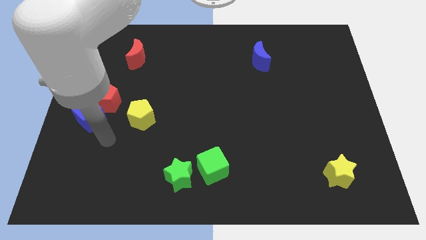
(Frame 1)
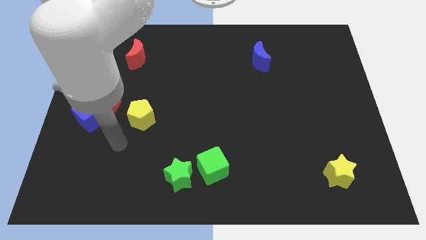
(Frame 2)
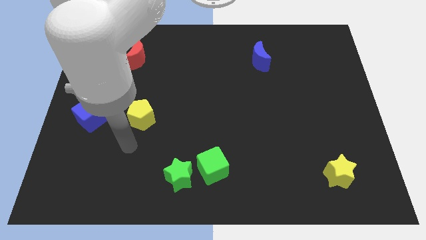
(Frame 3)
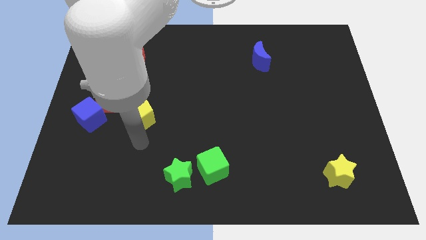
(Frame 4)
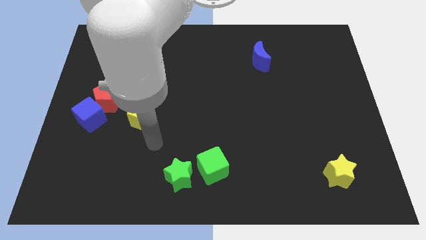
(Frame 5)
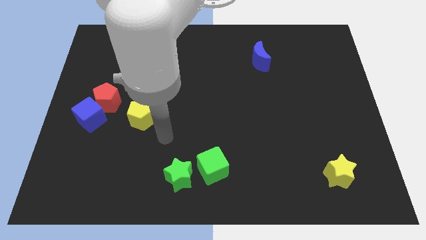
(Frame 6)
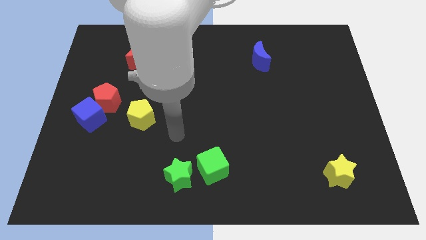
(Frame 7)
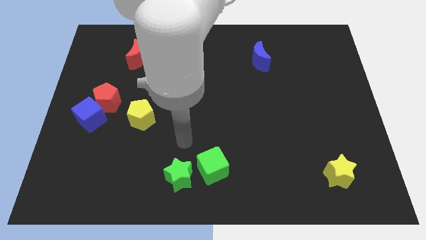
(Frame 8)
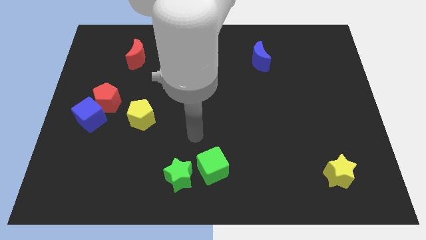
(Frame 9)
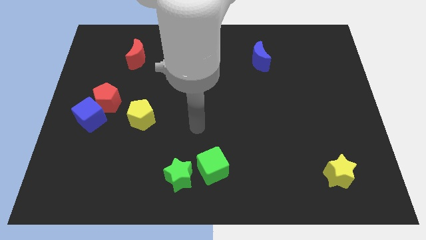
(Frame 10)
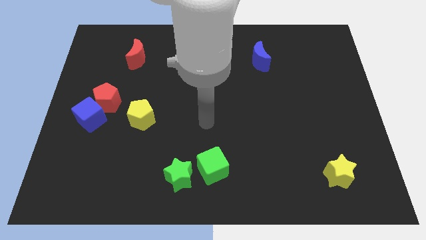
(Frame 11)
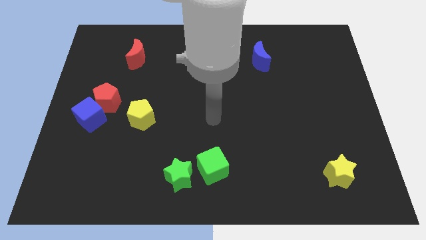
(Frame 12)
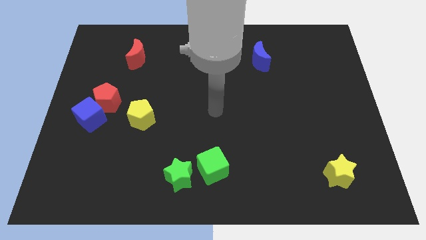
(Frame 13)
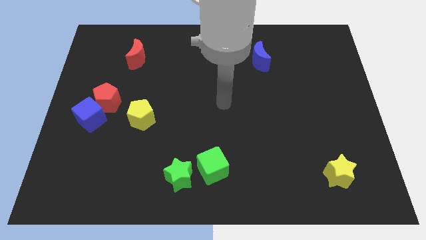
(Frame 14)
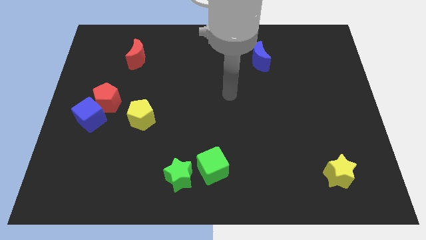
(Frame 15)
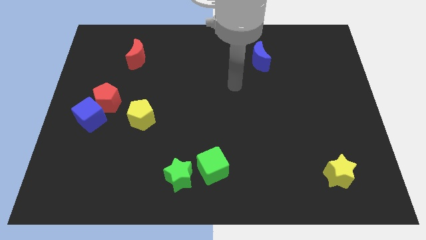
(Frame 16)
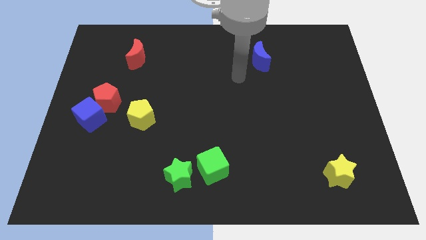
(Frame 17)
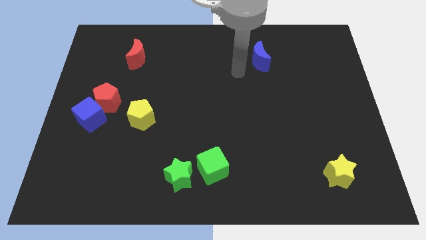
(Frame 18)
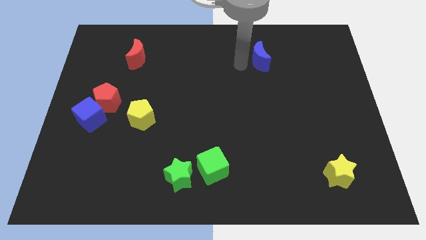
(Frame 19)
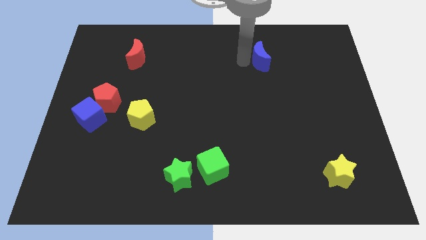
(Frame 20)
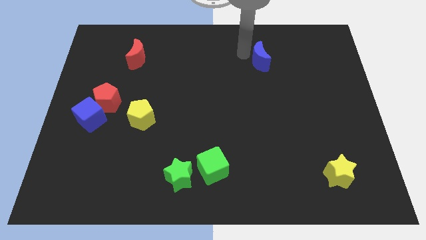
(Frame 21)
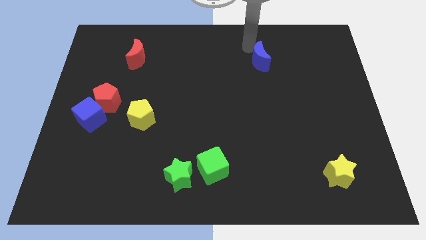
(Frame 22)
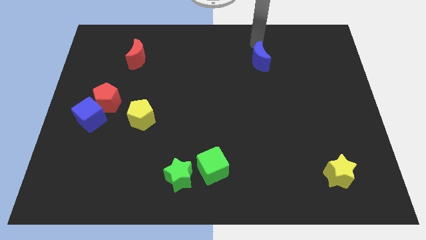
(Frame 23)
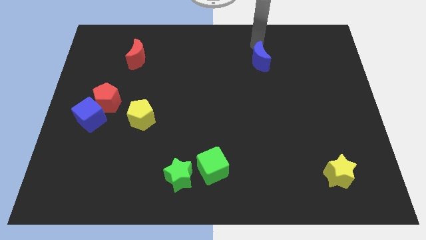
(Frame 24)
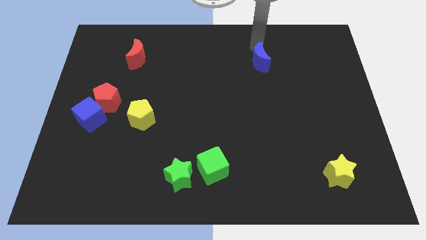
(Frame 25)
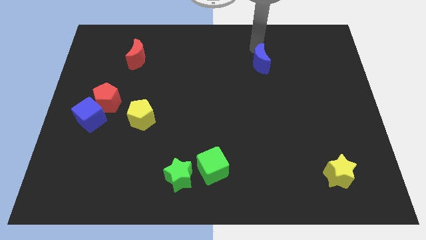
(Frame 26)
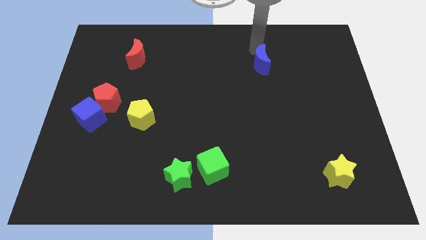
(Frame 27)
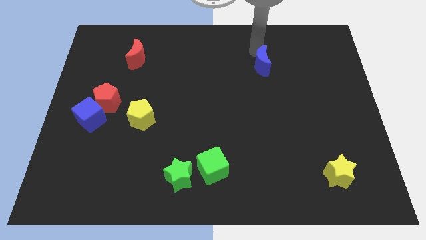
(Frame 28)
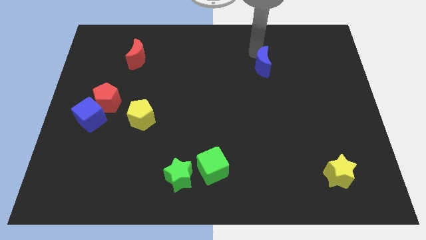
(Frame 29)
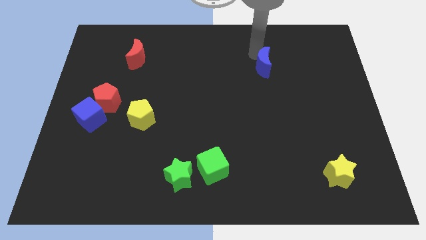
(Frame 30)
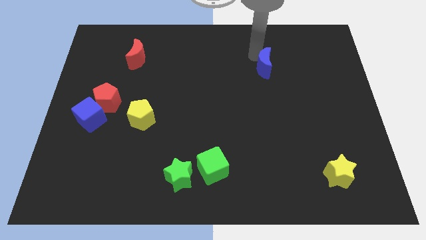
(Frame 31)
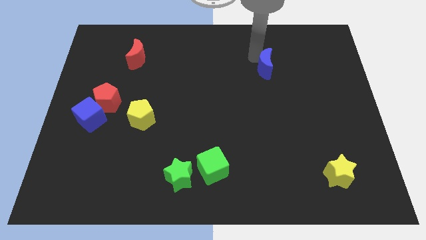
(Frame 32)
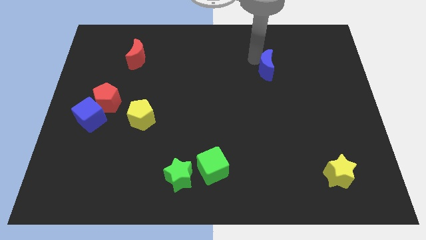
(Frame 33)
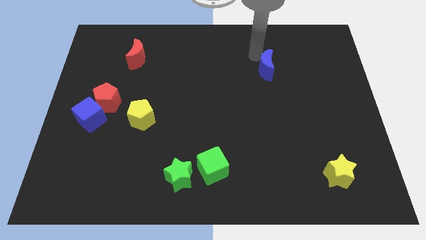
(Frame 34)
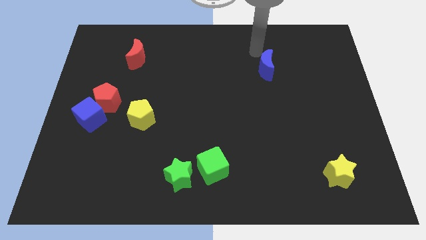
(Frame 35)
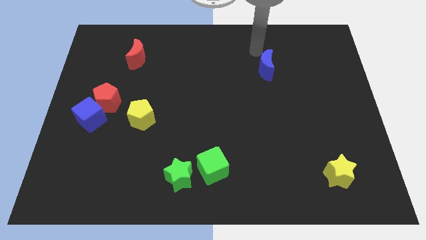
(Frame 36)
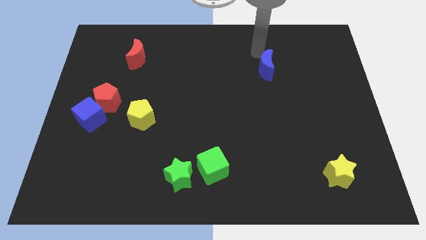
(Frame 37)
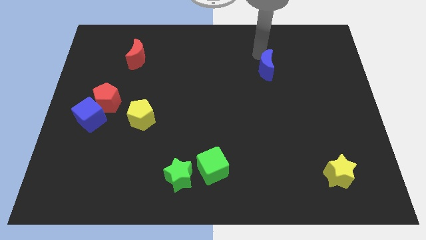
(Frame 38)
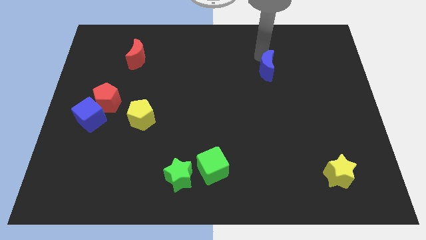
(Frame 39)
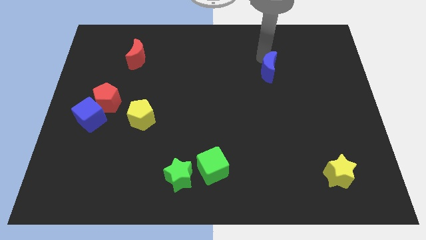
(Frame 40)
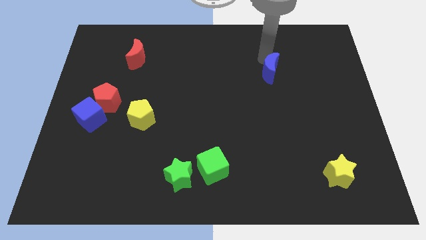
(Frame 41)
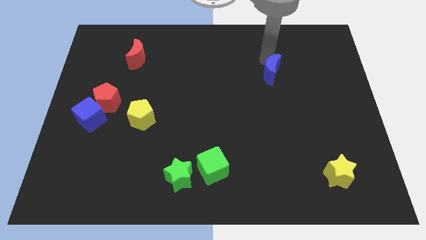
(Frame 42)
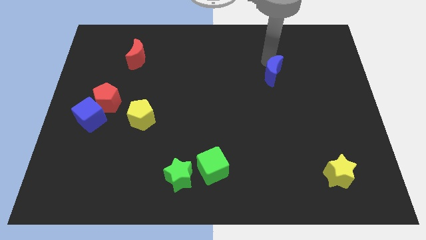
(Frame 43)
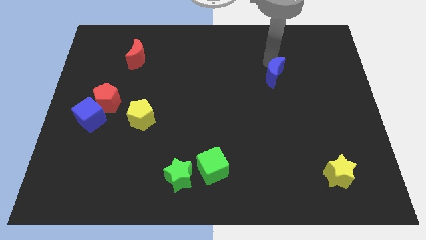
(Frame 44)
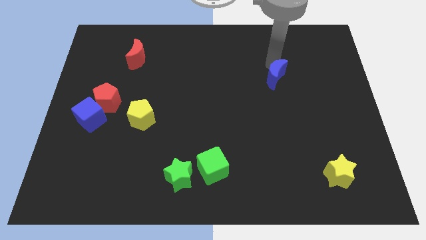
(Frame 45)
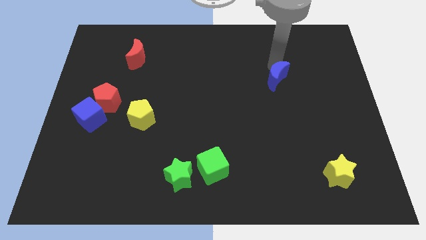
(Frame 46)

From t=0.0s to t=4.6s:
slide the blue moon somewhat down and to the right

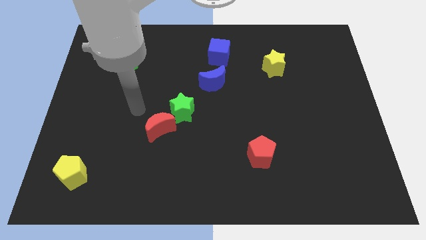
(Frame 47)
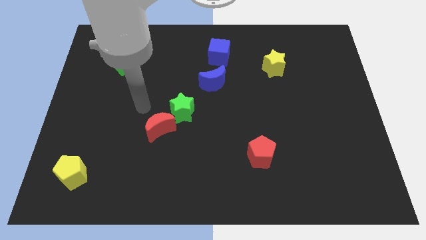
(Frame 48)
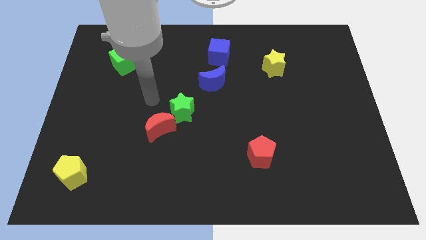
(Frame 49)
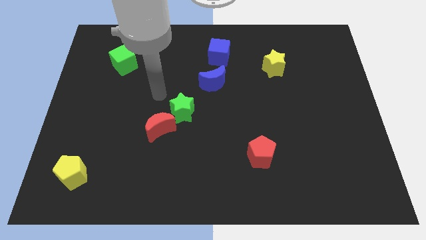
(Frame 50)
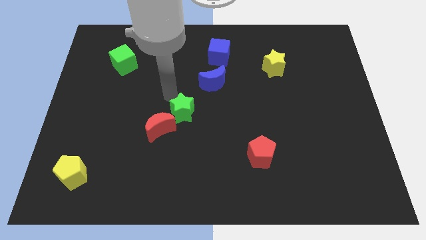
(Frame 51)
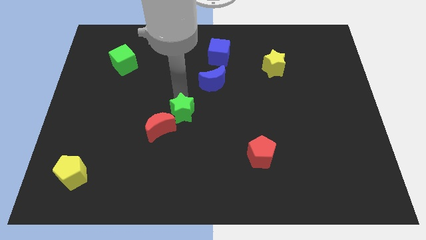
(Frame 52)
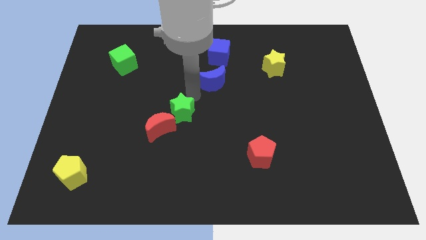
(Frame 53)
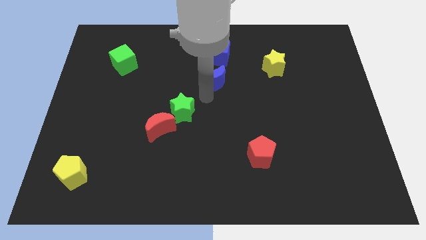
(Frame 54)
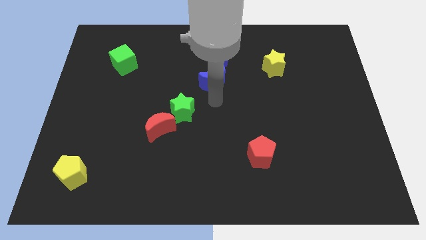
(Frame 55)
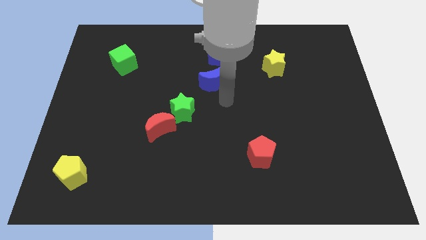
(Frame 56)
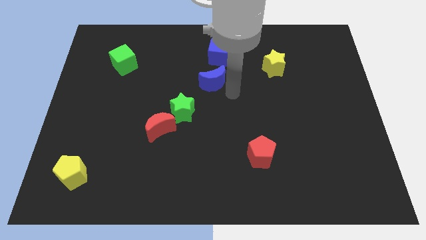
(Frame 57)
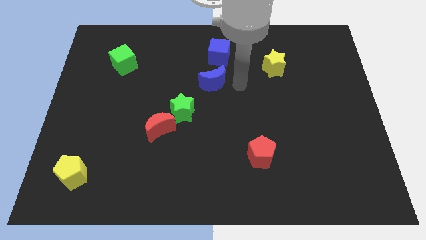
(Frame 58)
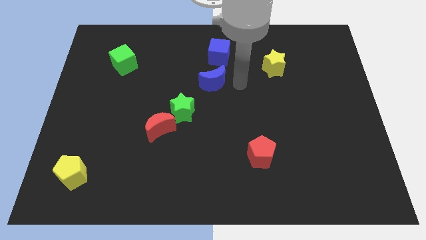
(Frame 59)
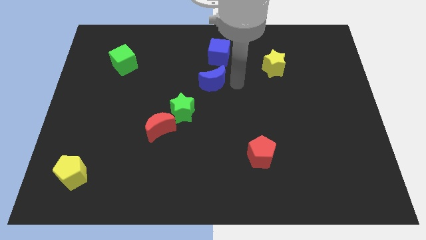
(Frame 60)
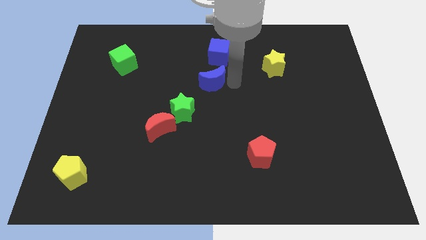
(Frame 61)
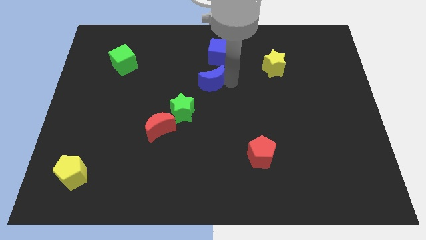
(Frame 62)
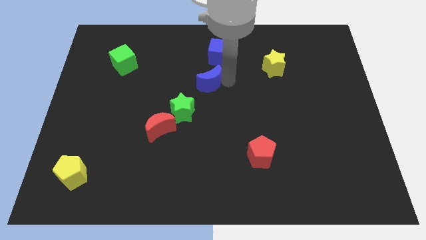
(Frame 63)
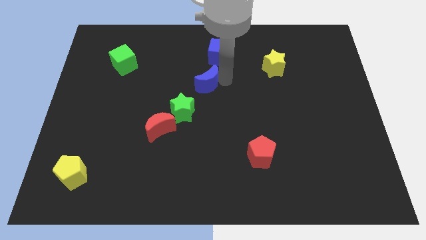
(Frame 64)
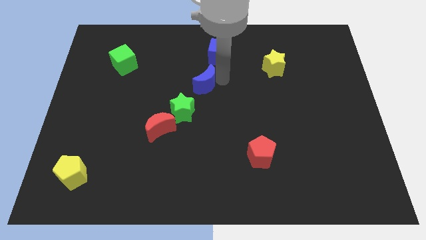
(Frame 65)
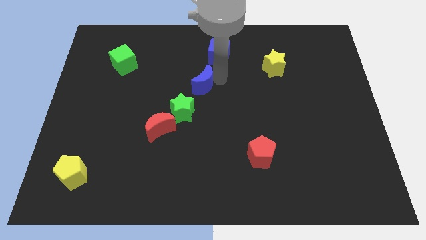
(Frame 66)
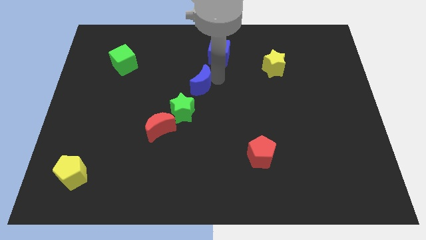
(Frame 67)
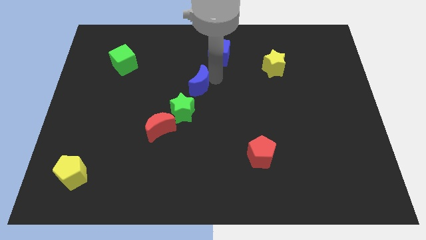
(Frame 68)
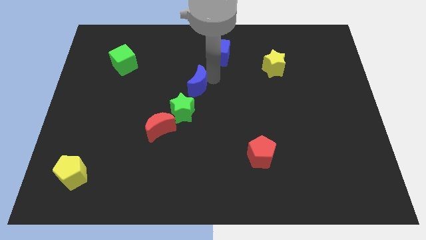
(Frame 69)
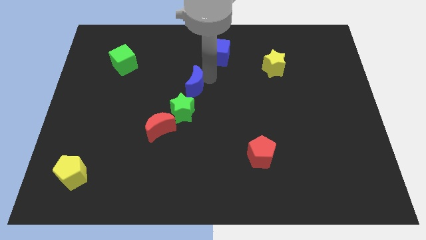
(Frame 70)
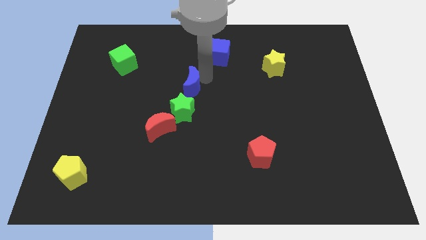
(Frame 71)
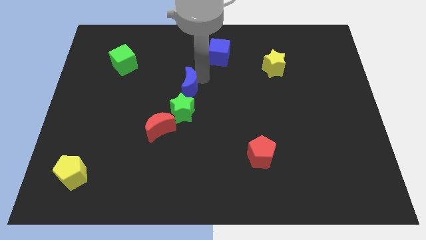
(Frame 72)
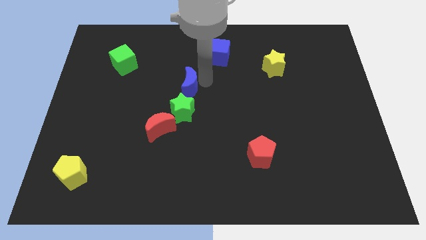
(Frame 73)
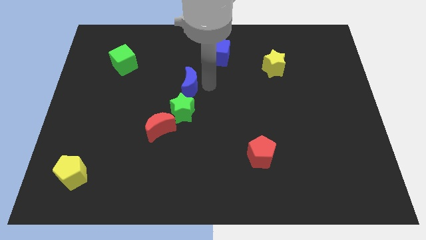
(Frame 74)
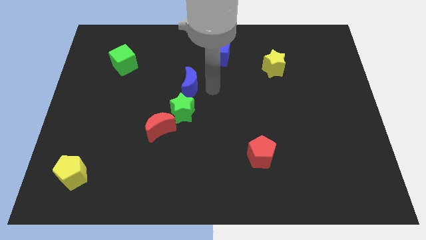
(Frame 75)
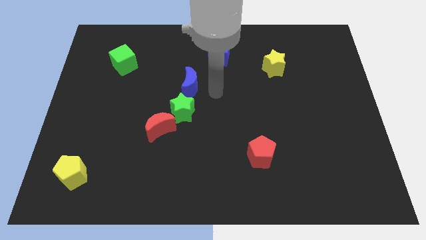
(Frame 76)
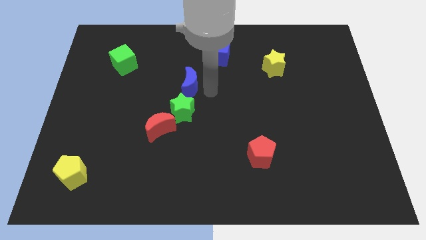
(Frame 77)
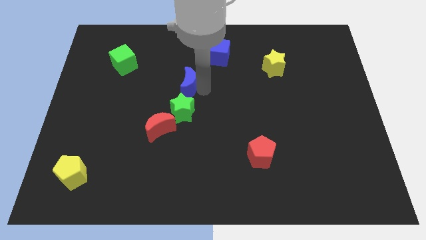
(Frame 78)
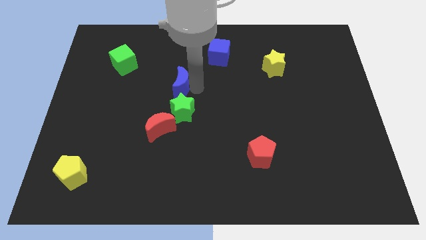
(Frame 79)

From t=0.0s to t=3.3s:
slide the blue moon a little to the left
